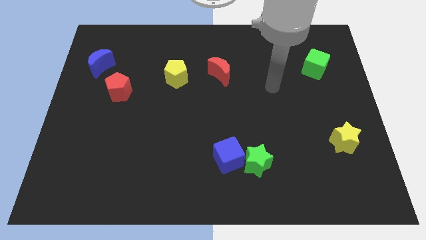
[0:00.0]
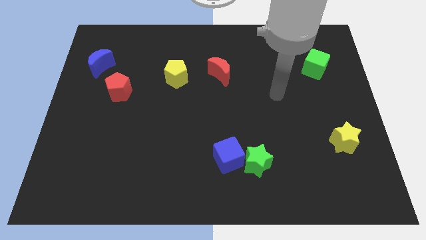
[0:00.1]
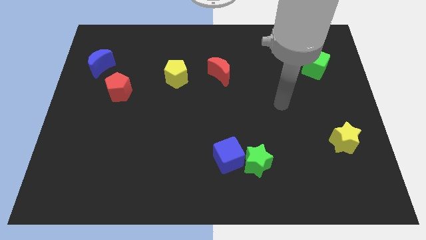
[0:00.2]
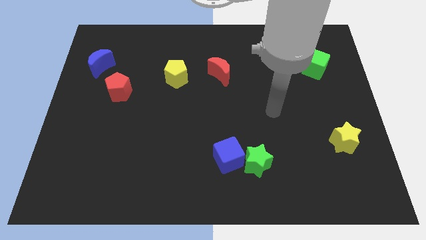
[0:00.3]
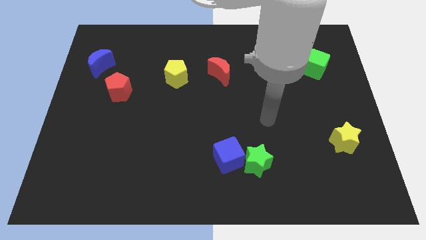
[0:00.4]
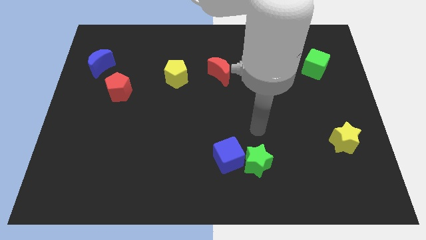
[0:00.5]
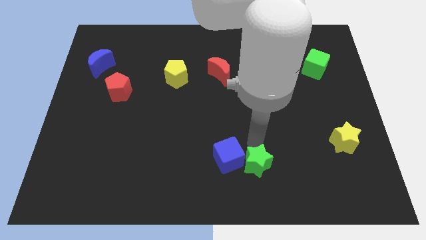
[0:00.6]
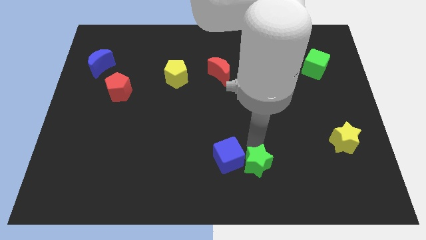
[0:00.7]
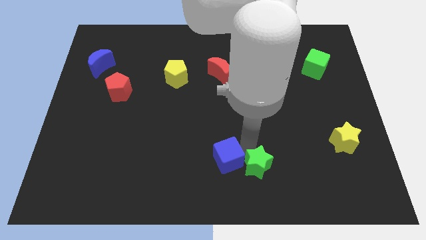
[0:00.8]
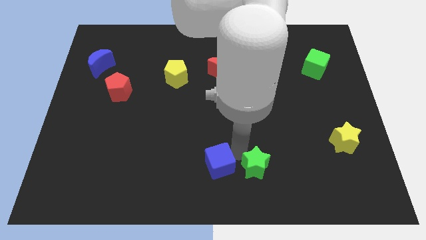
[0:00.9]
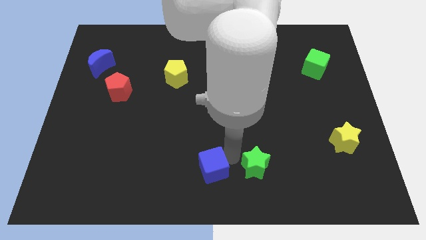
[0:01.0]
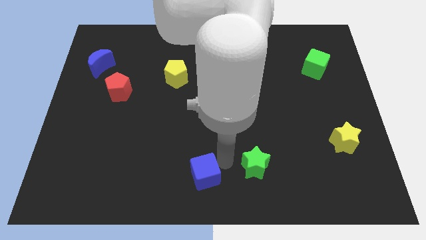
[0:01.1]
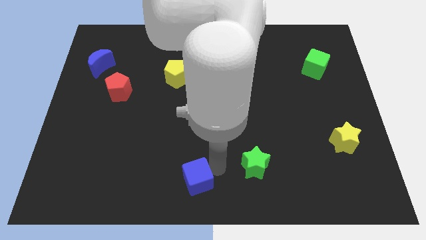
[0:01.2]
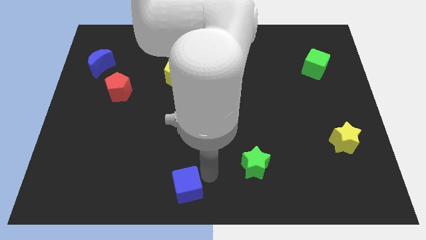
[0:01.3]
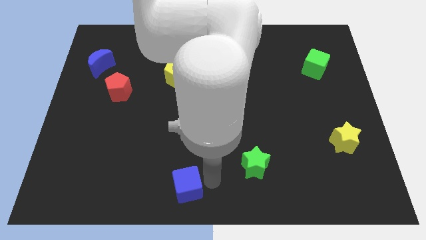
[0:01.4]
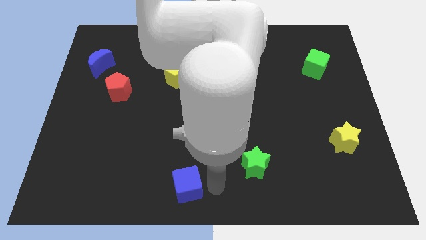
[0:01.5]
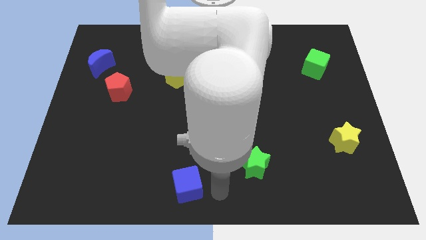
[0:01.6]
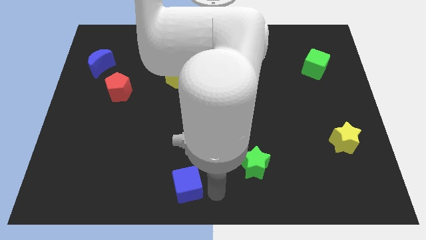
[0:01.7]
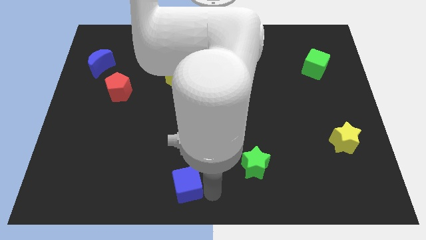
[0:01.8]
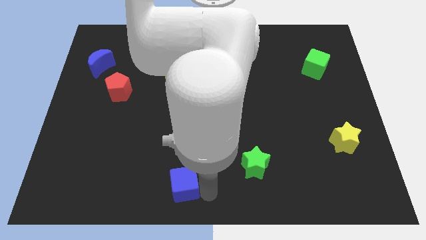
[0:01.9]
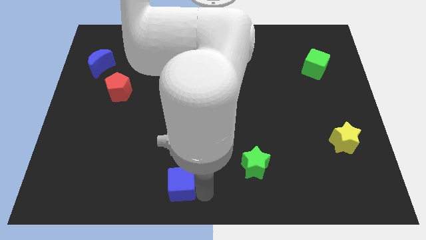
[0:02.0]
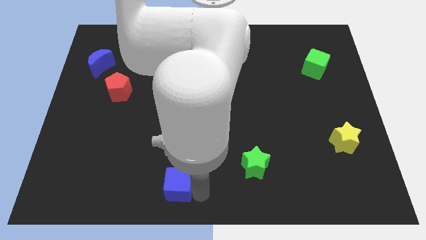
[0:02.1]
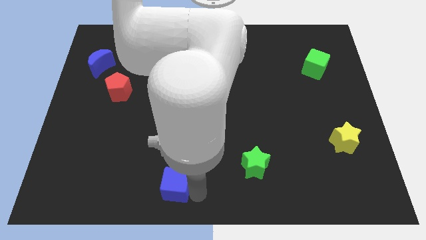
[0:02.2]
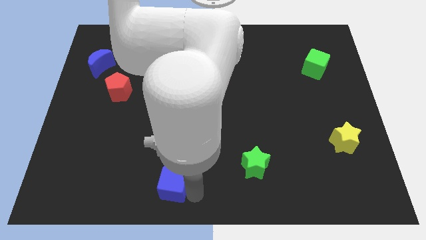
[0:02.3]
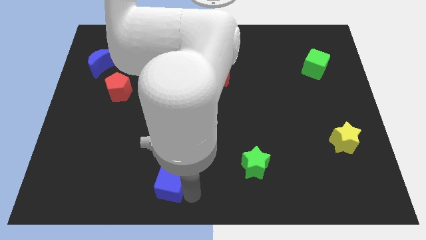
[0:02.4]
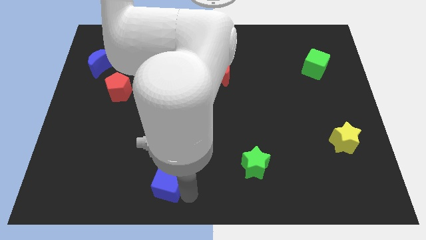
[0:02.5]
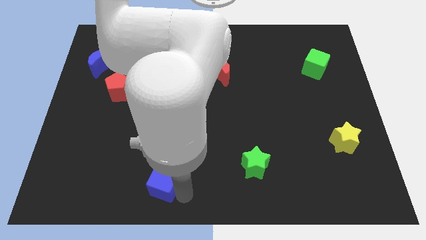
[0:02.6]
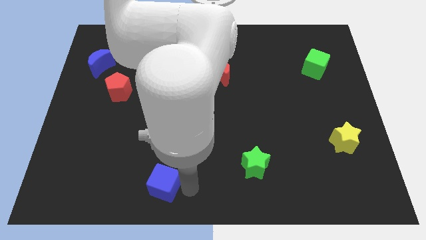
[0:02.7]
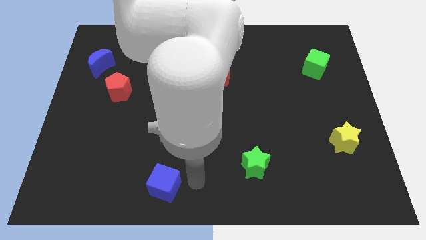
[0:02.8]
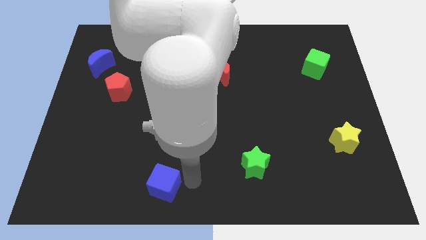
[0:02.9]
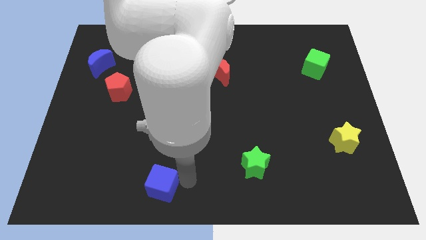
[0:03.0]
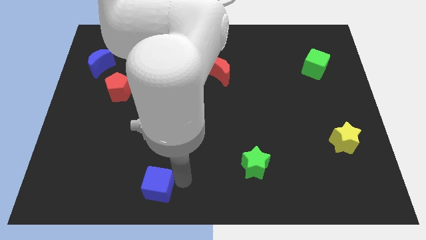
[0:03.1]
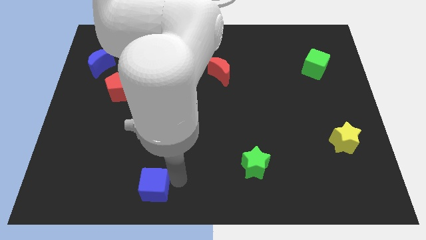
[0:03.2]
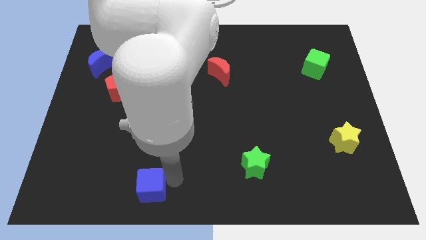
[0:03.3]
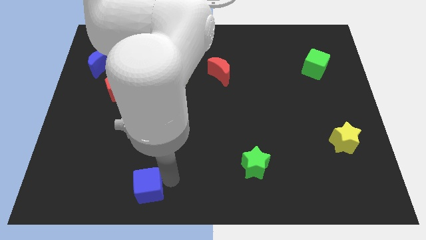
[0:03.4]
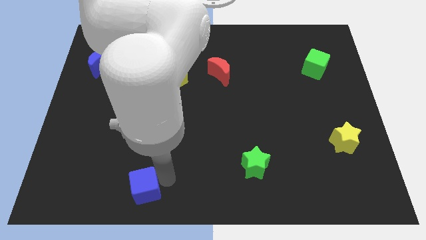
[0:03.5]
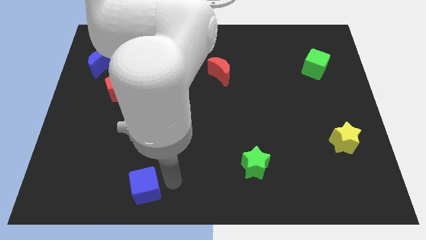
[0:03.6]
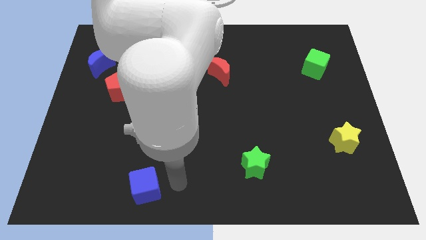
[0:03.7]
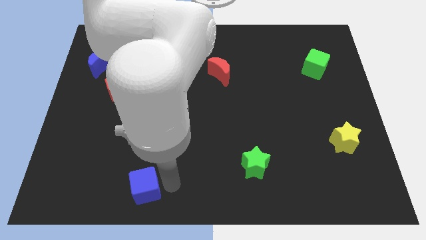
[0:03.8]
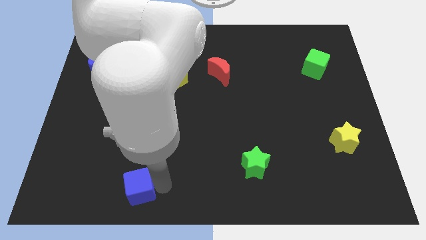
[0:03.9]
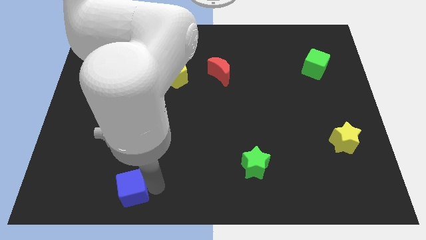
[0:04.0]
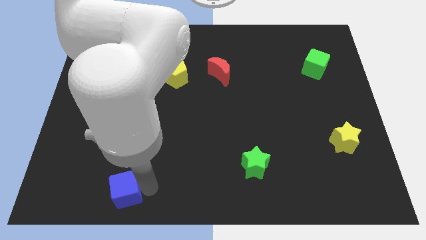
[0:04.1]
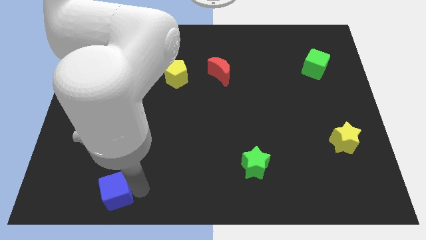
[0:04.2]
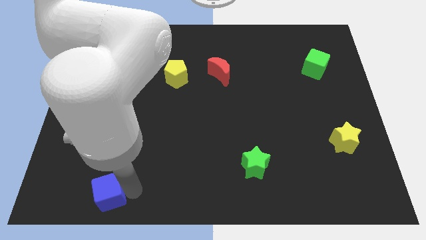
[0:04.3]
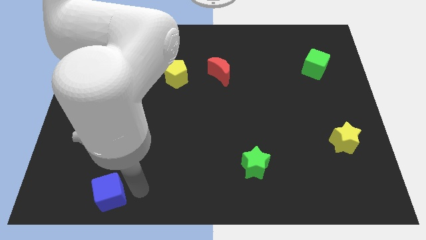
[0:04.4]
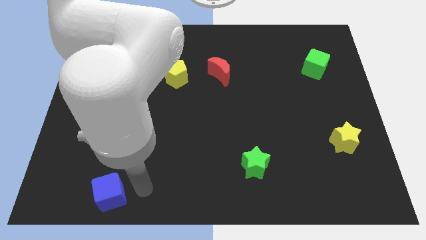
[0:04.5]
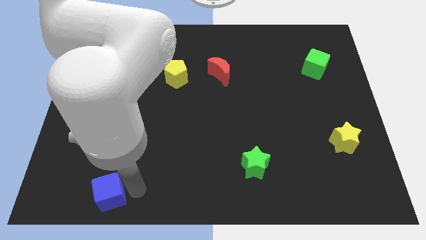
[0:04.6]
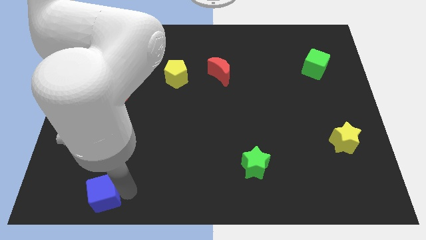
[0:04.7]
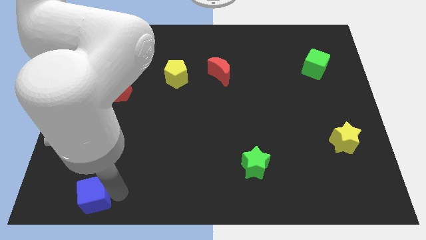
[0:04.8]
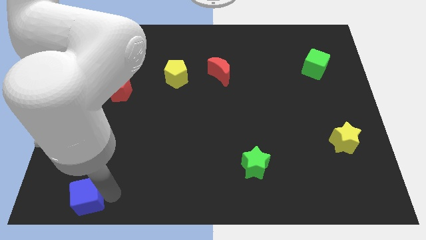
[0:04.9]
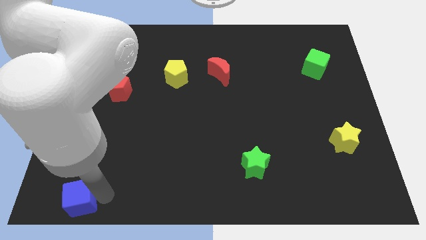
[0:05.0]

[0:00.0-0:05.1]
put the blue cube to the bottom left of the board

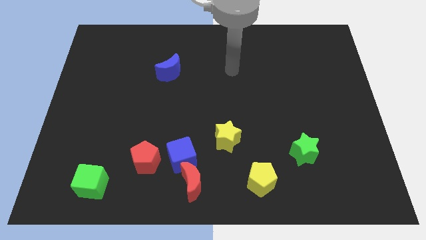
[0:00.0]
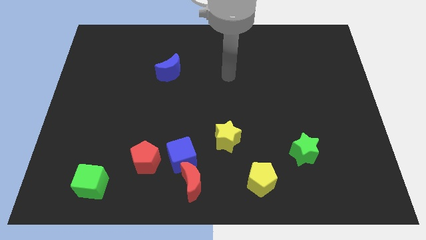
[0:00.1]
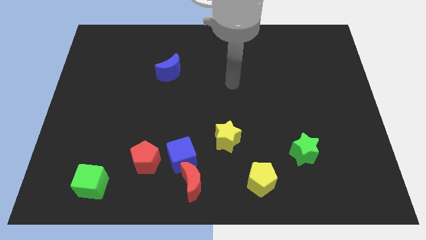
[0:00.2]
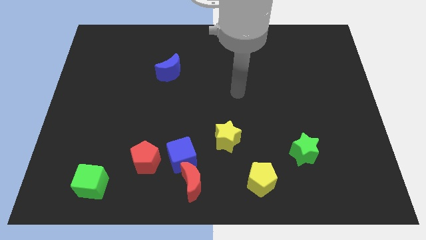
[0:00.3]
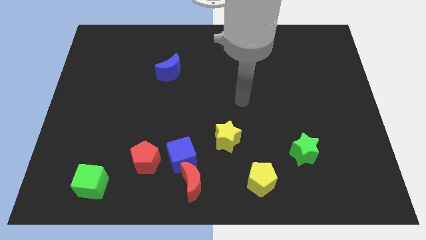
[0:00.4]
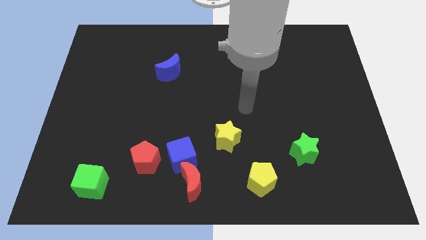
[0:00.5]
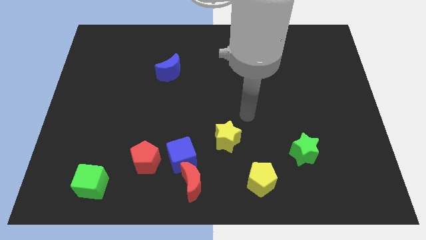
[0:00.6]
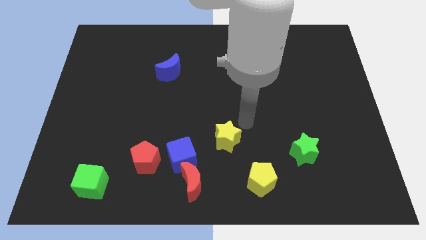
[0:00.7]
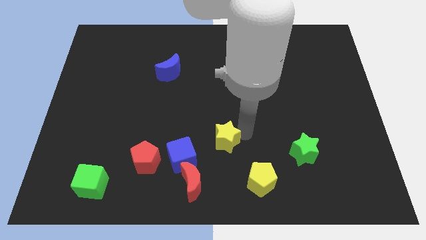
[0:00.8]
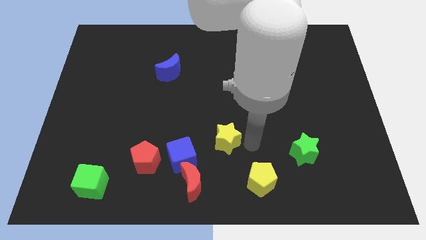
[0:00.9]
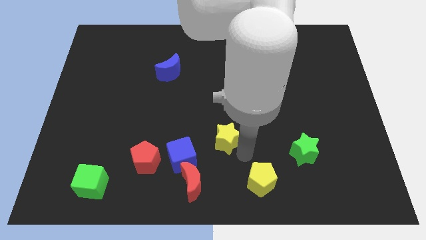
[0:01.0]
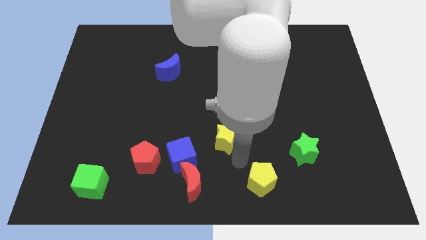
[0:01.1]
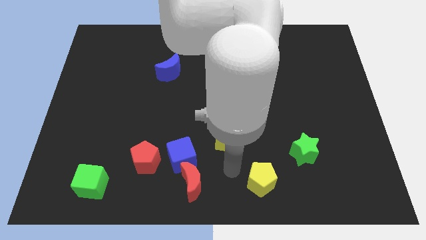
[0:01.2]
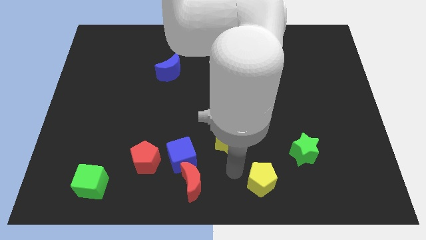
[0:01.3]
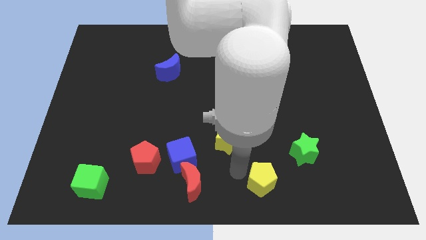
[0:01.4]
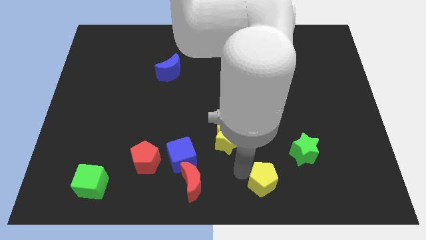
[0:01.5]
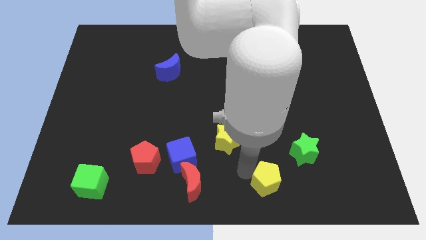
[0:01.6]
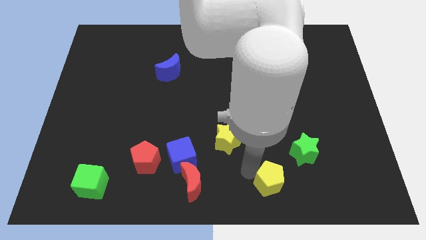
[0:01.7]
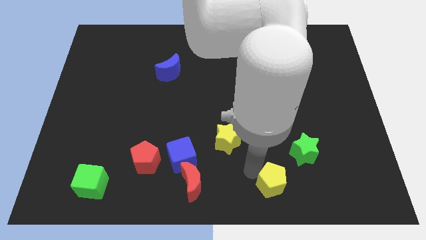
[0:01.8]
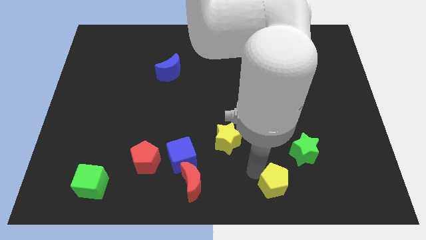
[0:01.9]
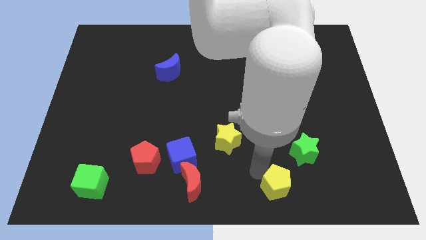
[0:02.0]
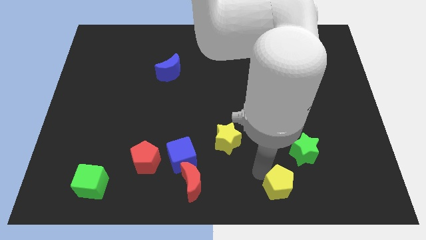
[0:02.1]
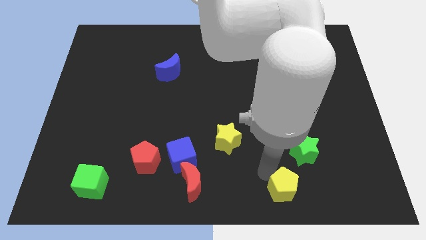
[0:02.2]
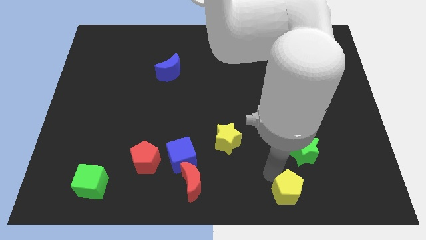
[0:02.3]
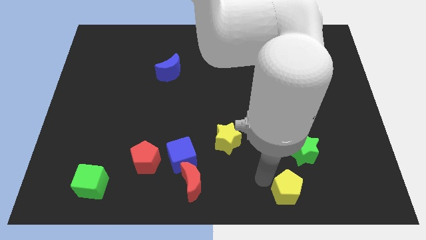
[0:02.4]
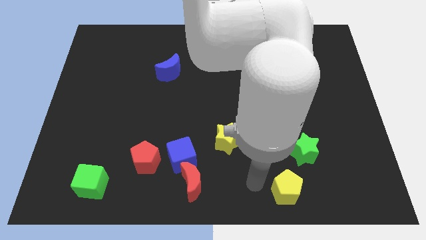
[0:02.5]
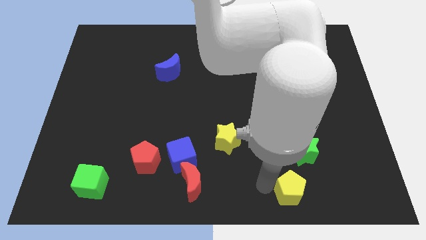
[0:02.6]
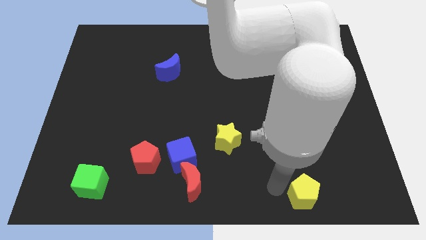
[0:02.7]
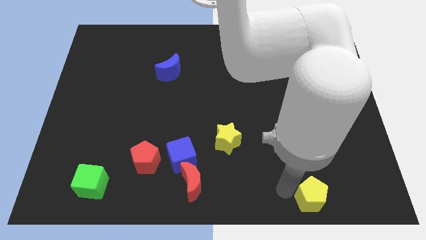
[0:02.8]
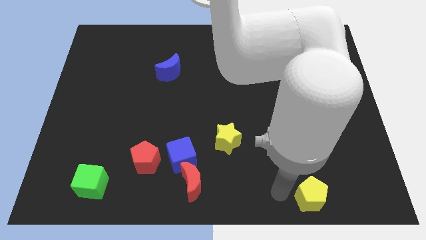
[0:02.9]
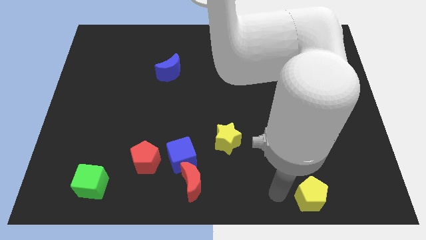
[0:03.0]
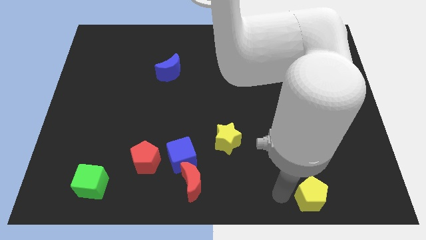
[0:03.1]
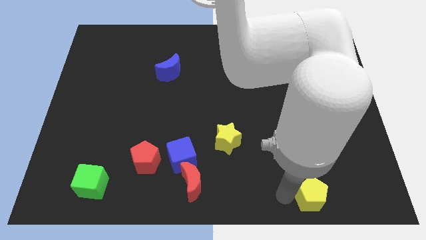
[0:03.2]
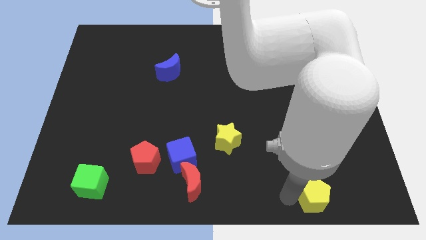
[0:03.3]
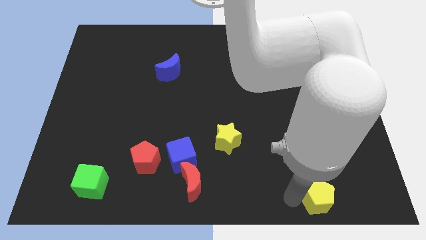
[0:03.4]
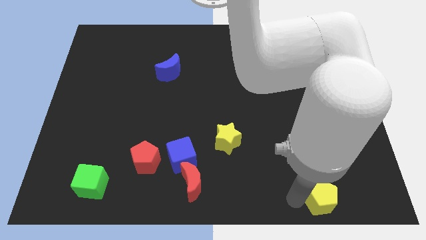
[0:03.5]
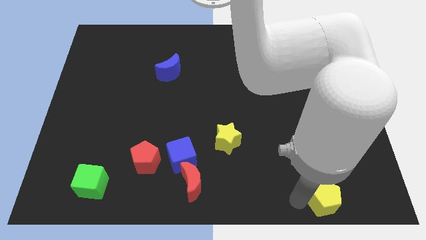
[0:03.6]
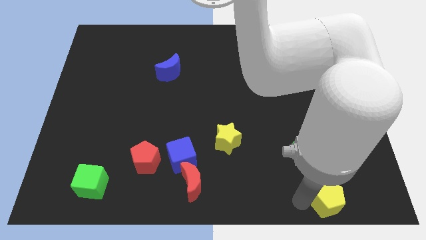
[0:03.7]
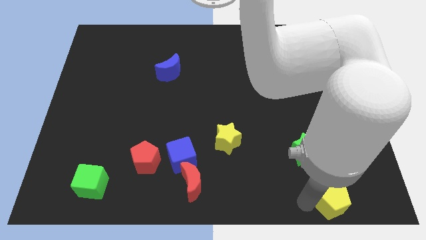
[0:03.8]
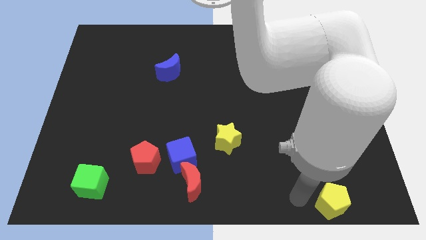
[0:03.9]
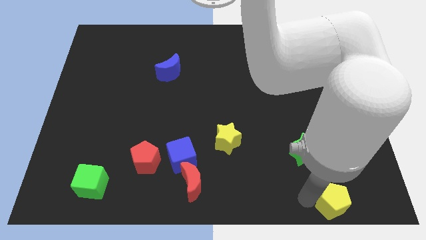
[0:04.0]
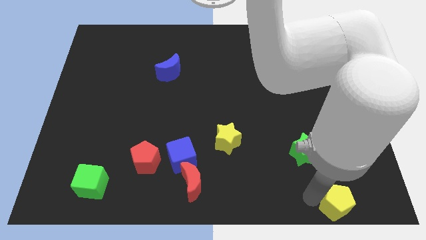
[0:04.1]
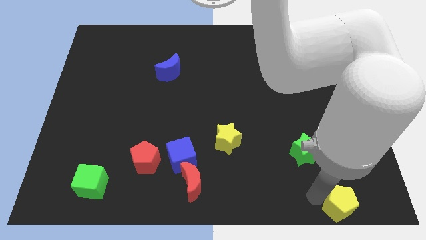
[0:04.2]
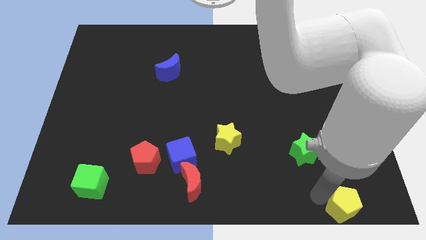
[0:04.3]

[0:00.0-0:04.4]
slide the yellow pentagon to the lower right corner
